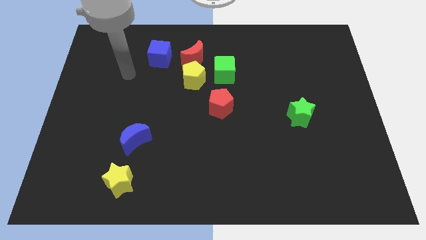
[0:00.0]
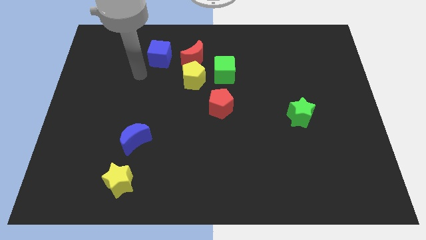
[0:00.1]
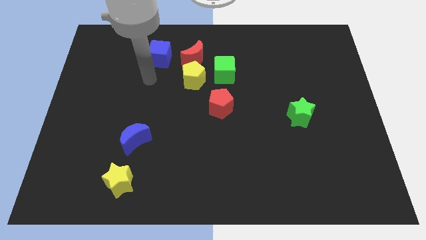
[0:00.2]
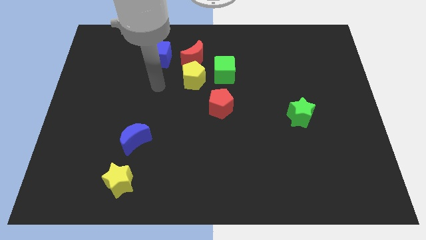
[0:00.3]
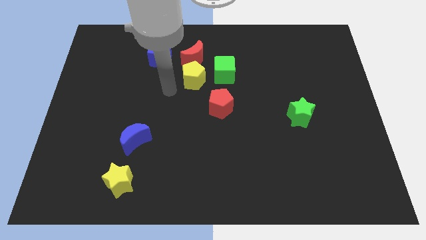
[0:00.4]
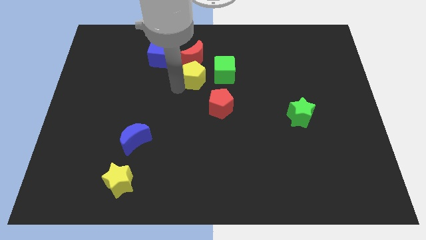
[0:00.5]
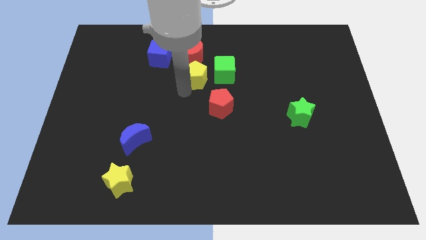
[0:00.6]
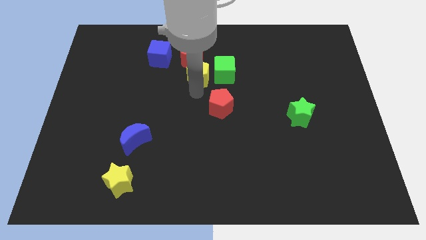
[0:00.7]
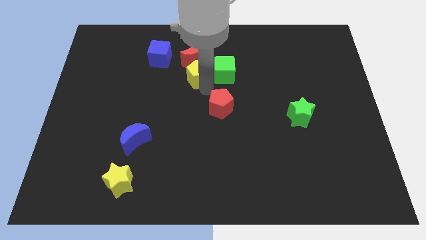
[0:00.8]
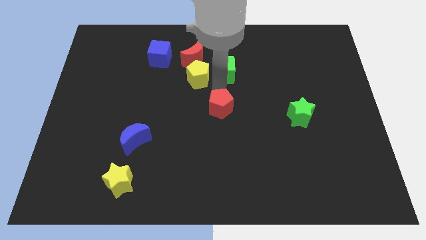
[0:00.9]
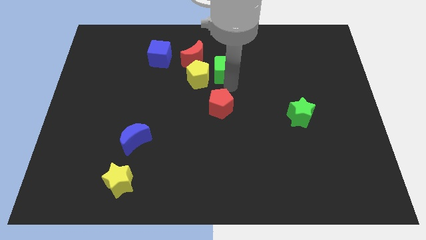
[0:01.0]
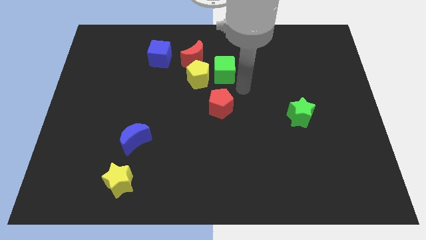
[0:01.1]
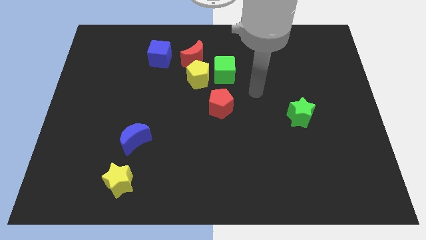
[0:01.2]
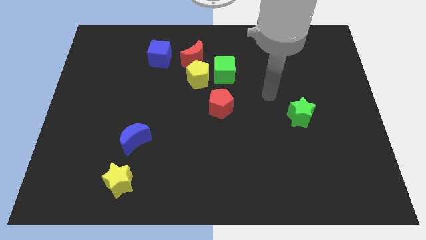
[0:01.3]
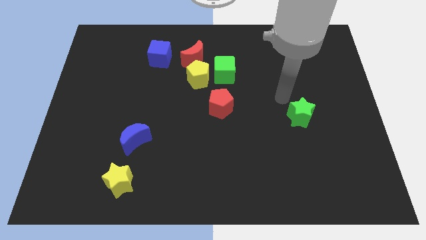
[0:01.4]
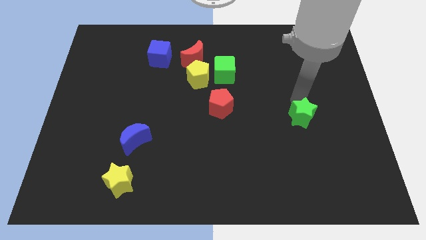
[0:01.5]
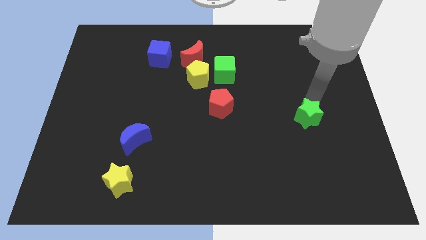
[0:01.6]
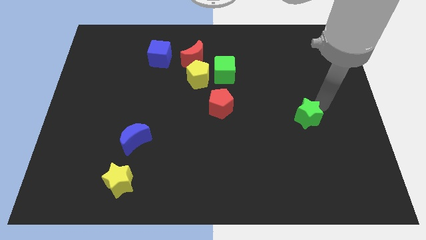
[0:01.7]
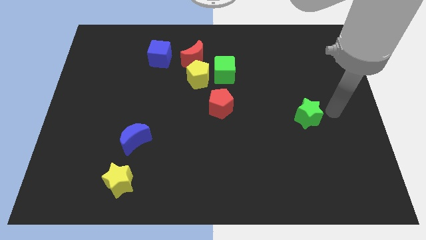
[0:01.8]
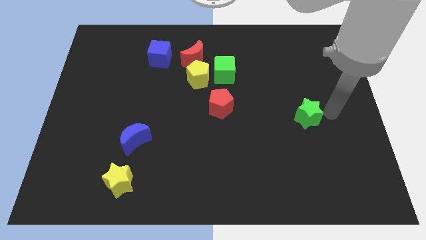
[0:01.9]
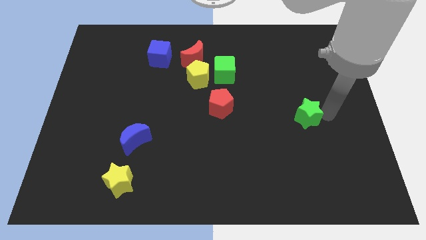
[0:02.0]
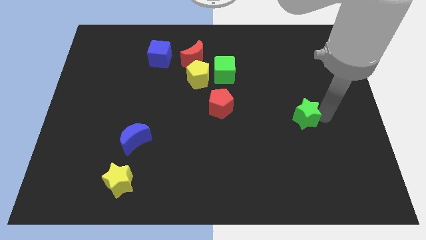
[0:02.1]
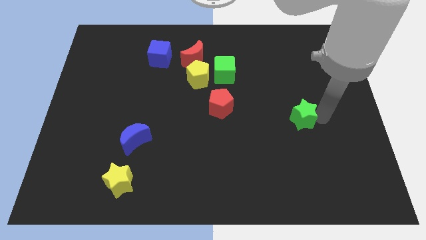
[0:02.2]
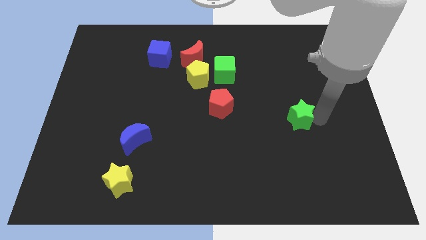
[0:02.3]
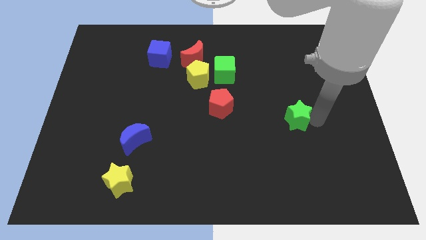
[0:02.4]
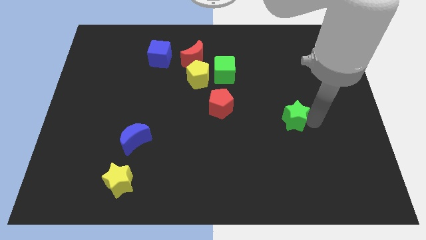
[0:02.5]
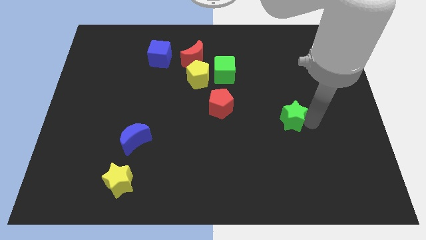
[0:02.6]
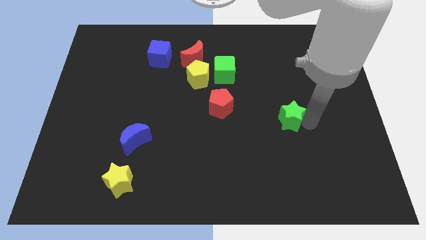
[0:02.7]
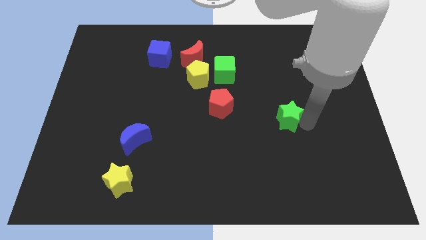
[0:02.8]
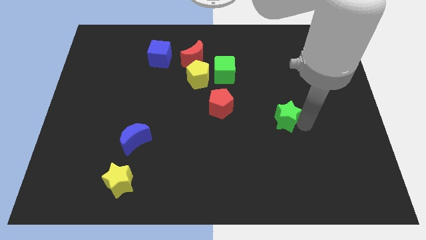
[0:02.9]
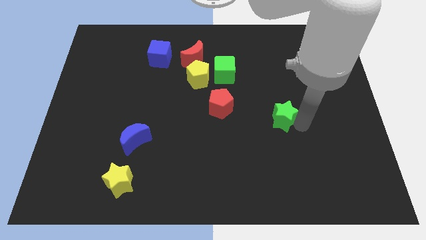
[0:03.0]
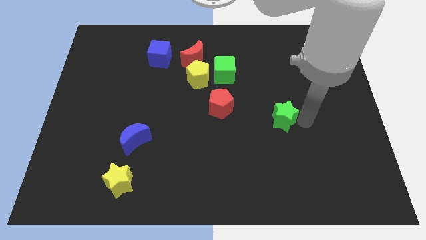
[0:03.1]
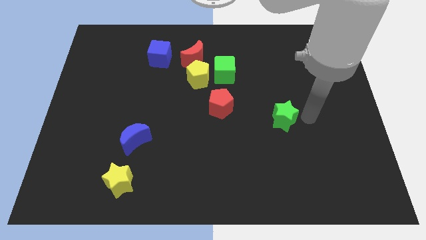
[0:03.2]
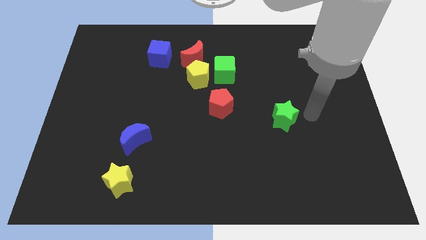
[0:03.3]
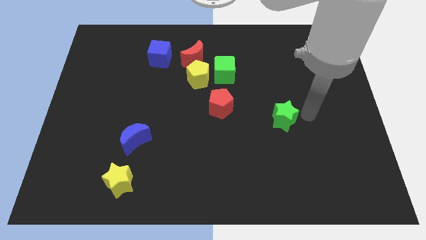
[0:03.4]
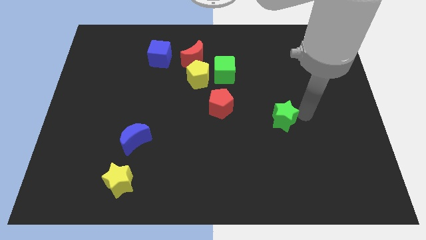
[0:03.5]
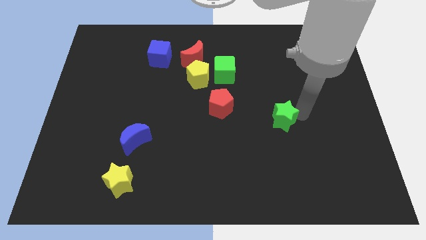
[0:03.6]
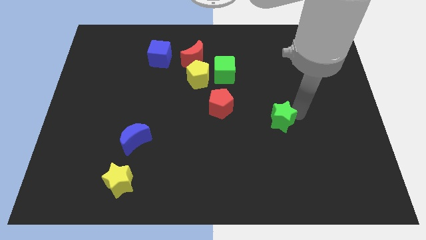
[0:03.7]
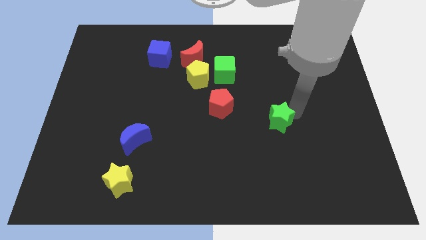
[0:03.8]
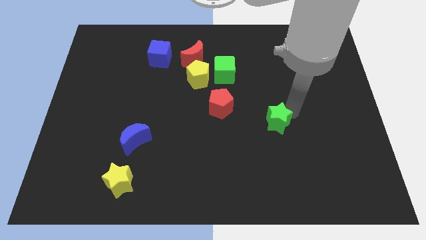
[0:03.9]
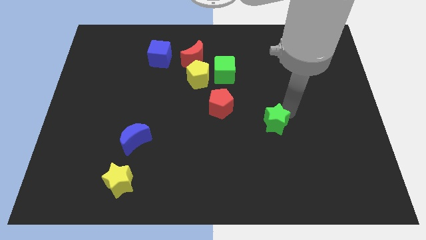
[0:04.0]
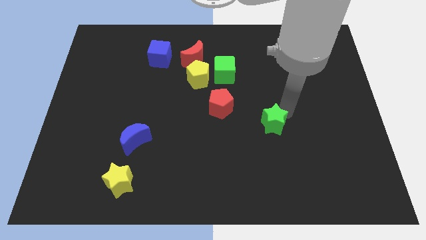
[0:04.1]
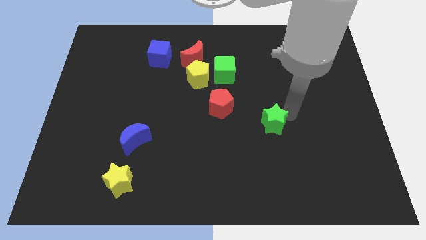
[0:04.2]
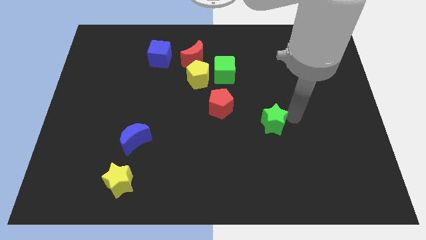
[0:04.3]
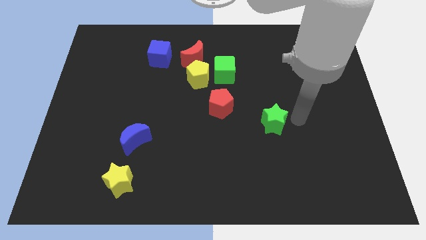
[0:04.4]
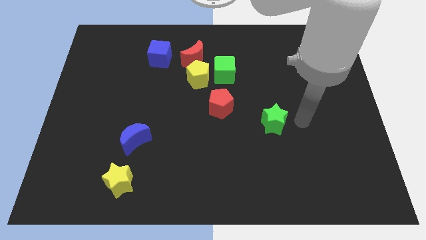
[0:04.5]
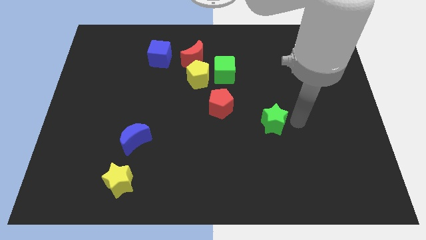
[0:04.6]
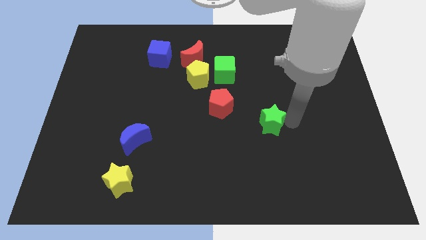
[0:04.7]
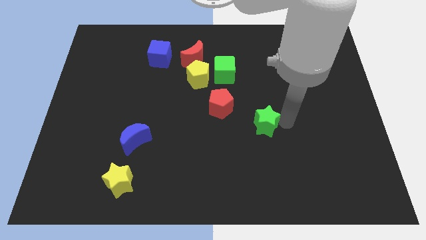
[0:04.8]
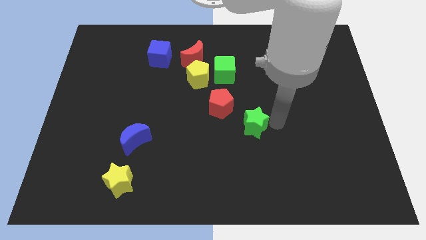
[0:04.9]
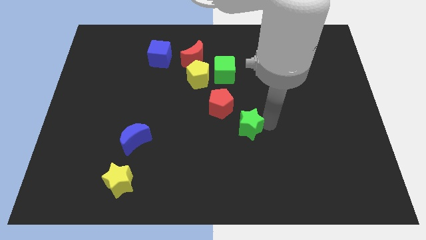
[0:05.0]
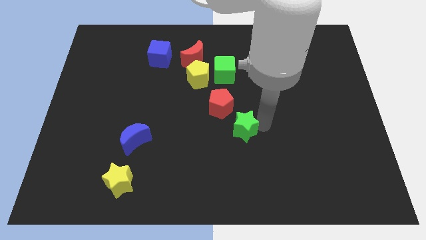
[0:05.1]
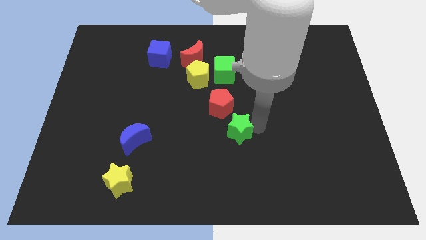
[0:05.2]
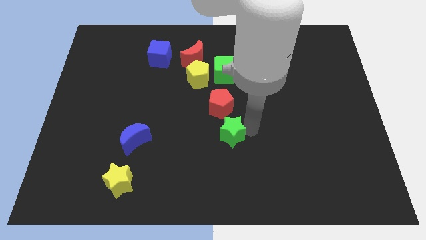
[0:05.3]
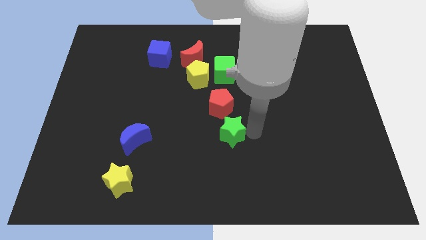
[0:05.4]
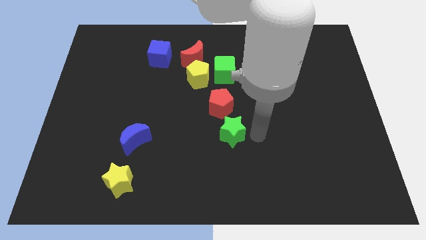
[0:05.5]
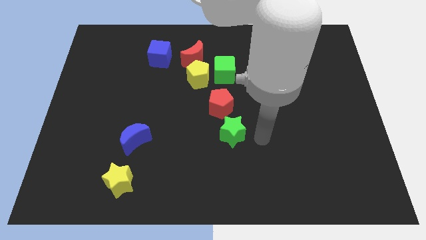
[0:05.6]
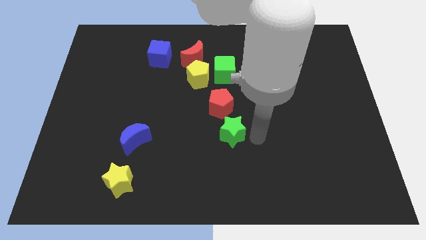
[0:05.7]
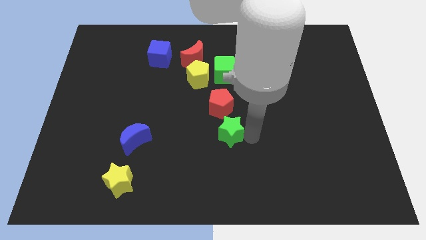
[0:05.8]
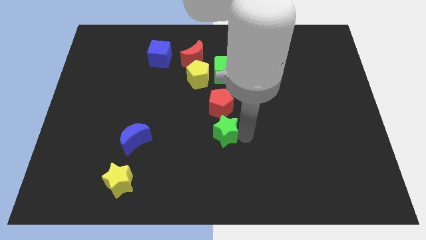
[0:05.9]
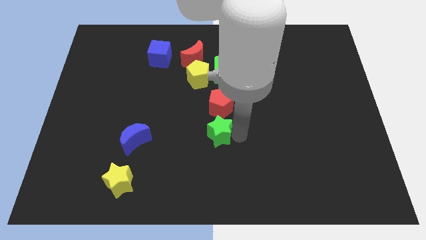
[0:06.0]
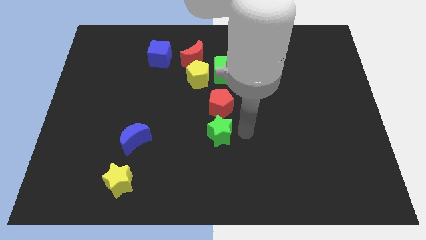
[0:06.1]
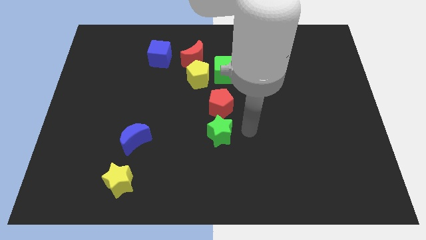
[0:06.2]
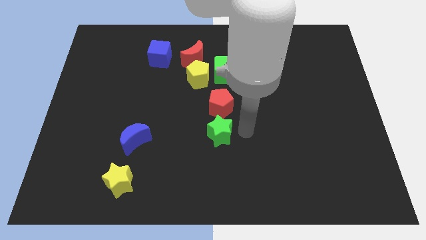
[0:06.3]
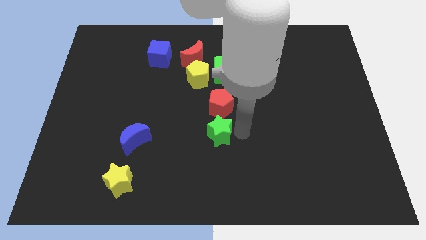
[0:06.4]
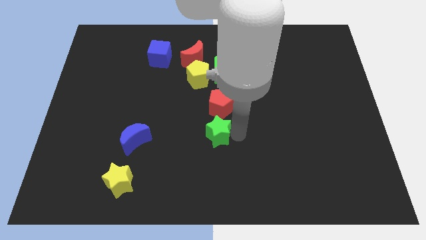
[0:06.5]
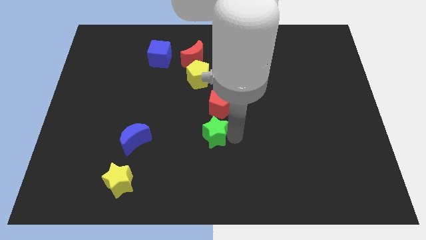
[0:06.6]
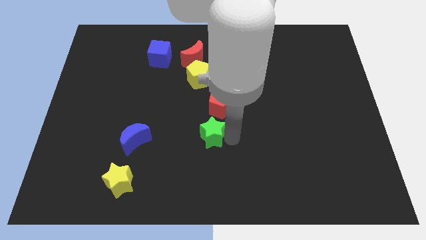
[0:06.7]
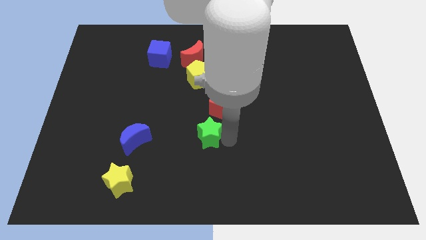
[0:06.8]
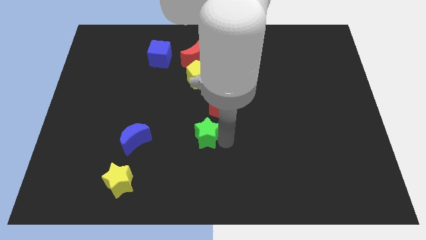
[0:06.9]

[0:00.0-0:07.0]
move the green star to the right side of the blue moon
